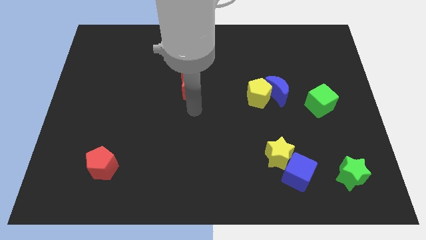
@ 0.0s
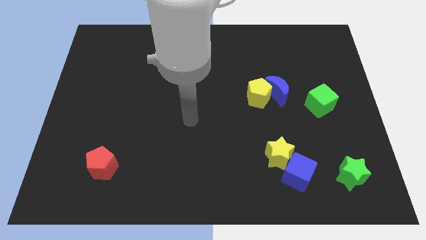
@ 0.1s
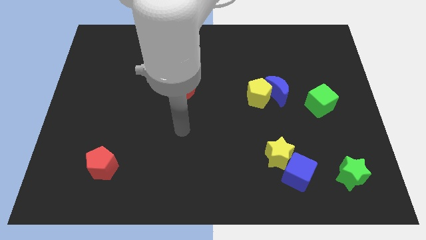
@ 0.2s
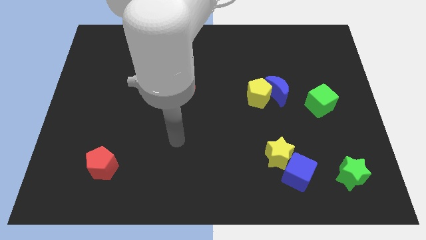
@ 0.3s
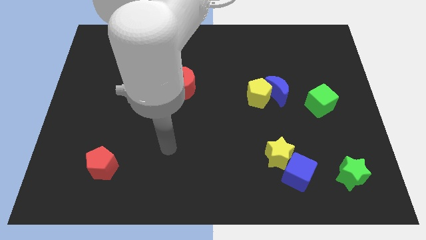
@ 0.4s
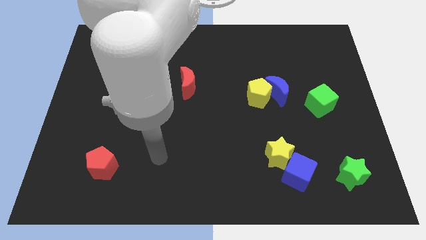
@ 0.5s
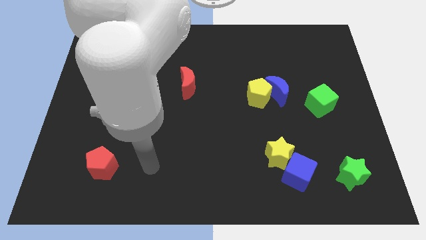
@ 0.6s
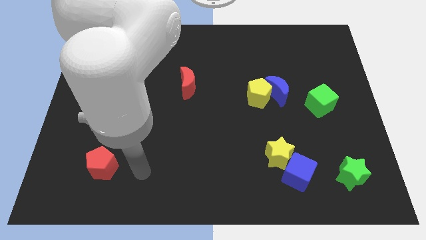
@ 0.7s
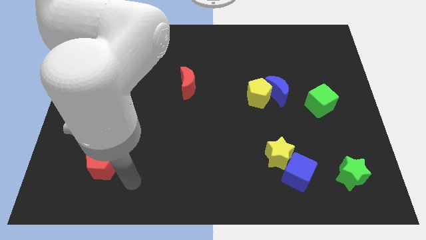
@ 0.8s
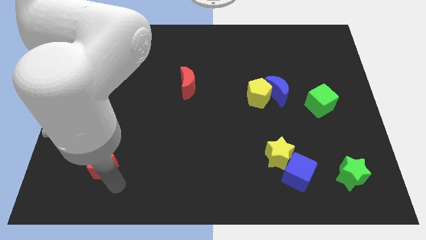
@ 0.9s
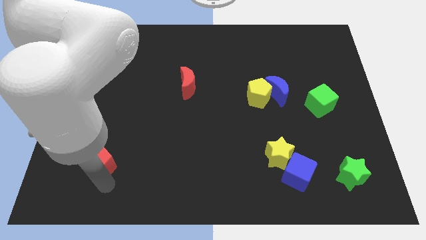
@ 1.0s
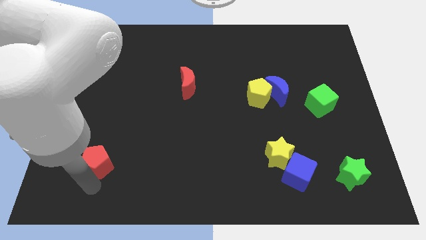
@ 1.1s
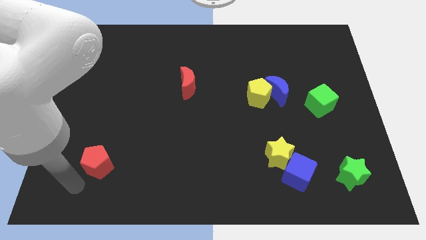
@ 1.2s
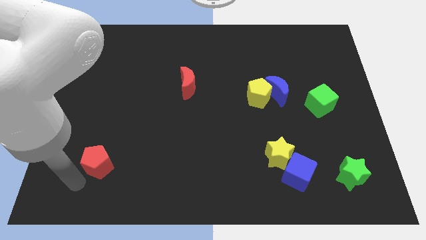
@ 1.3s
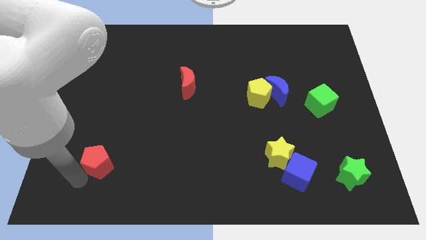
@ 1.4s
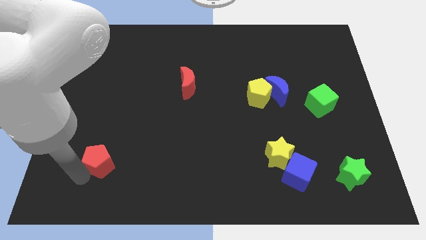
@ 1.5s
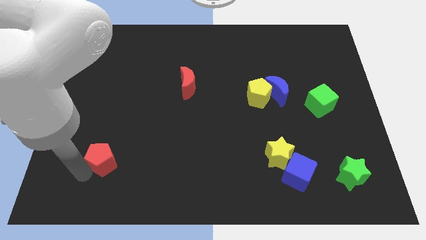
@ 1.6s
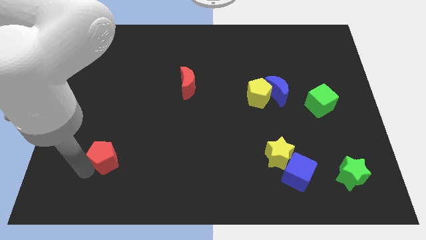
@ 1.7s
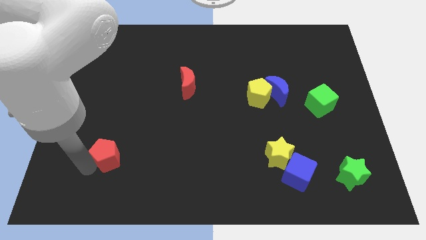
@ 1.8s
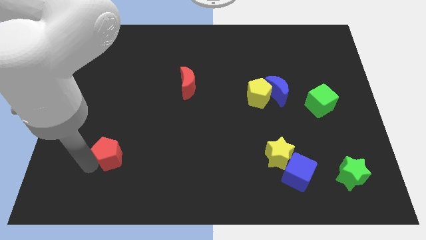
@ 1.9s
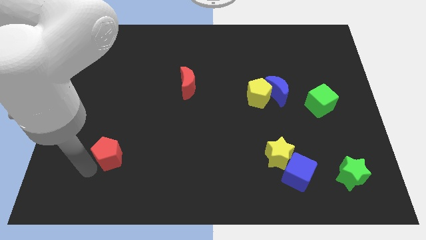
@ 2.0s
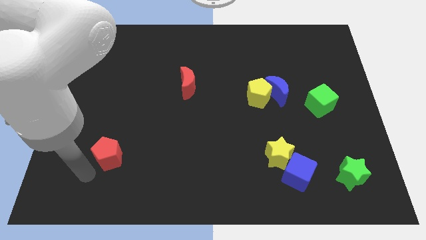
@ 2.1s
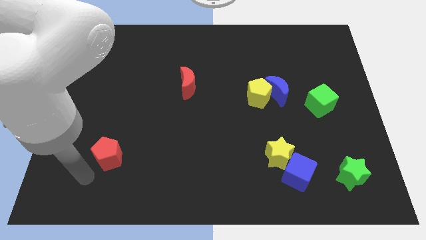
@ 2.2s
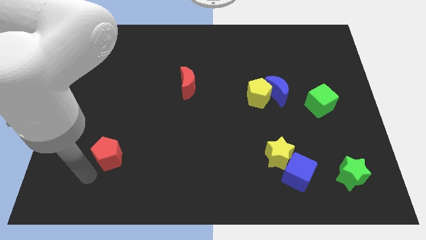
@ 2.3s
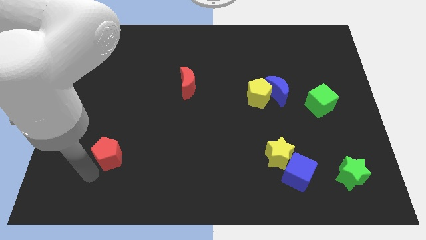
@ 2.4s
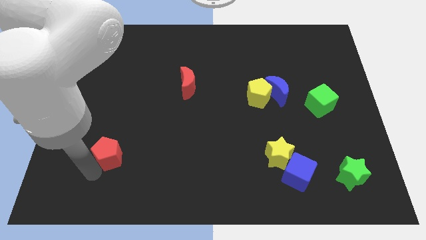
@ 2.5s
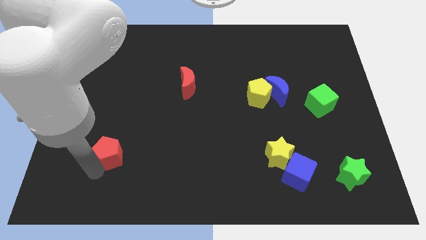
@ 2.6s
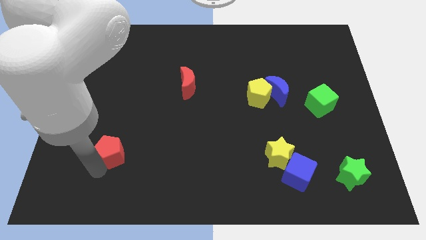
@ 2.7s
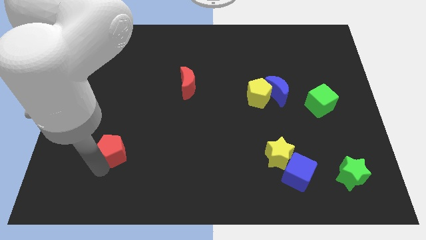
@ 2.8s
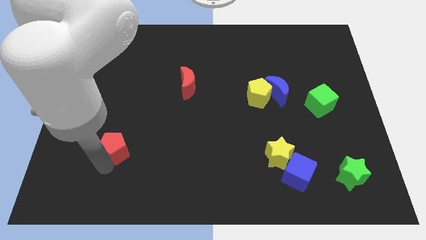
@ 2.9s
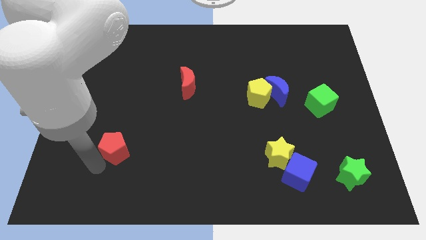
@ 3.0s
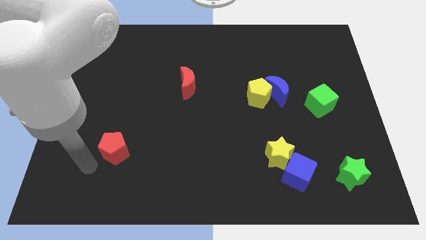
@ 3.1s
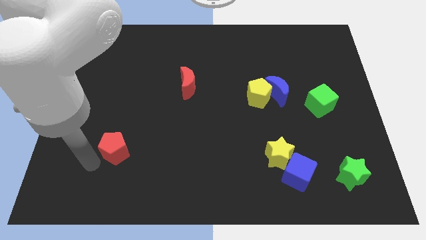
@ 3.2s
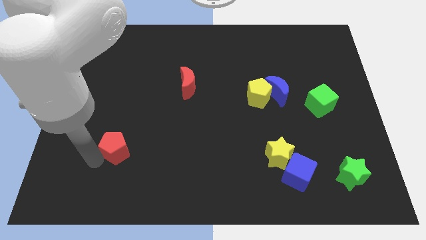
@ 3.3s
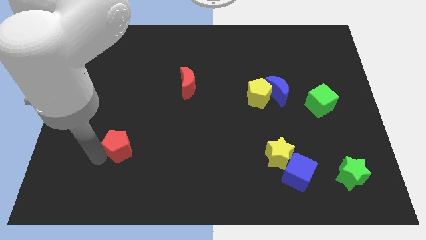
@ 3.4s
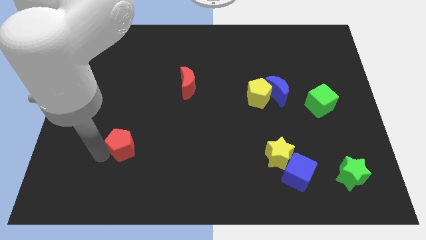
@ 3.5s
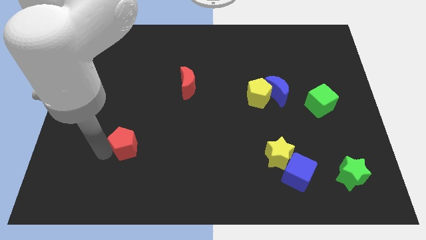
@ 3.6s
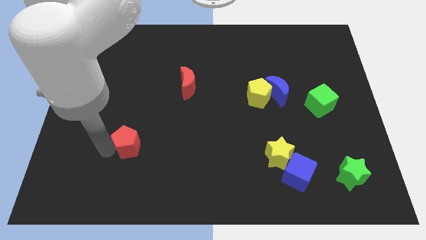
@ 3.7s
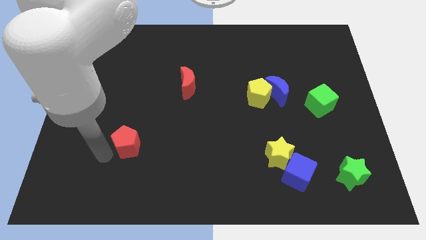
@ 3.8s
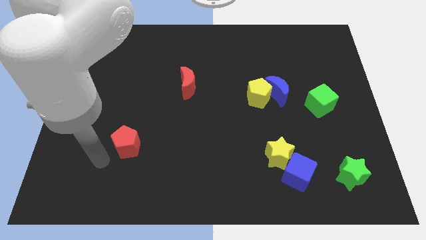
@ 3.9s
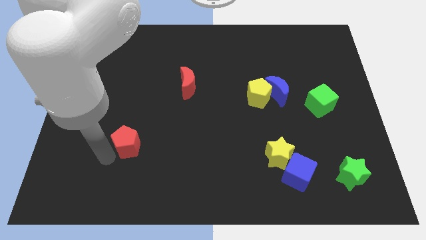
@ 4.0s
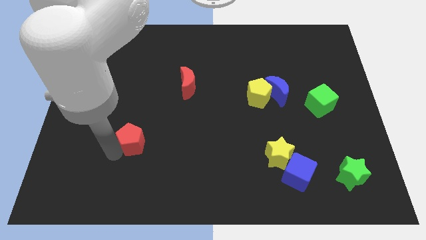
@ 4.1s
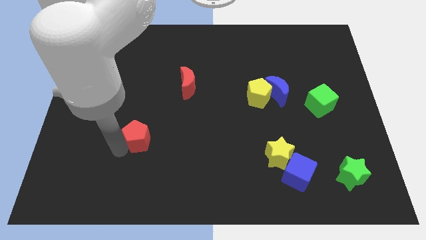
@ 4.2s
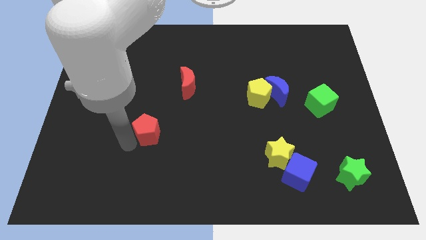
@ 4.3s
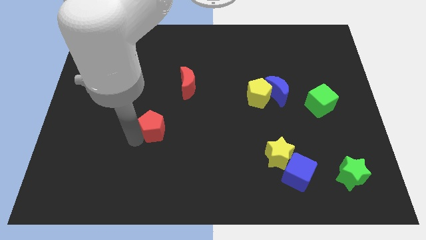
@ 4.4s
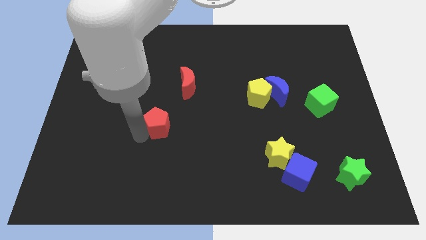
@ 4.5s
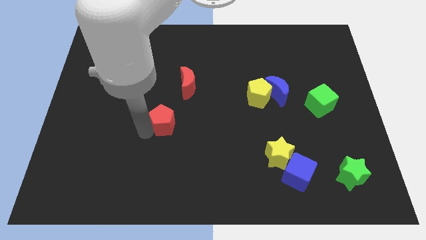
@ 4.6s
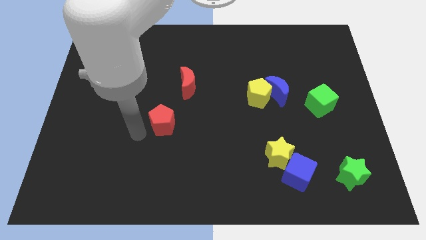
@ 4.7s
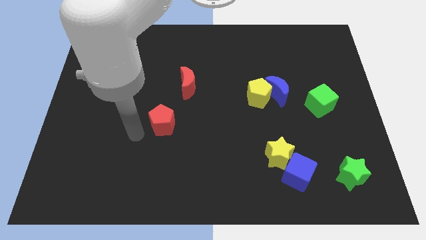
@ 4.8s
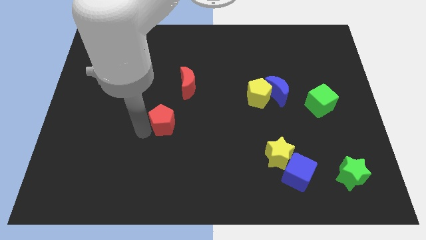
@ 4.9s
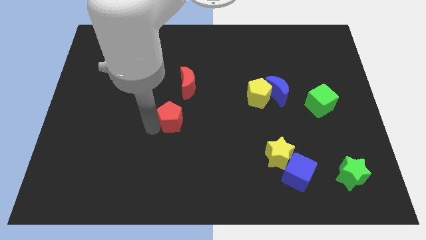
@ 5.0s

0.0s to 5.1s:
slide the red pentagon to the center of the board
